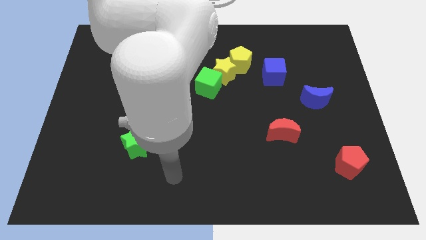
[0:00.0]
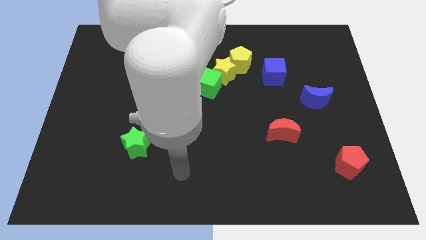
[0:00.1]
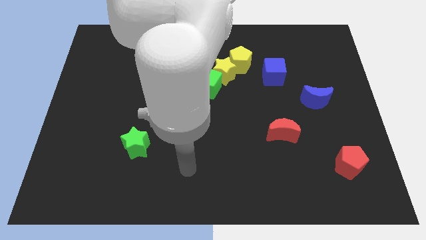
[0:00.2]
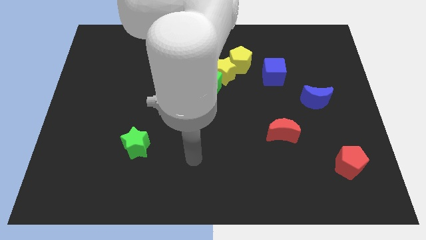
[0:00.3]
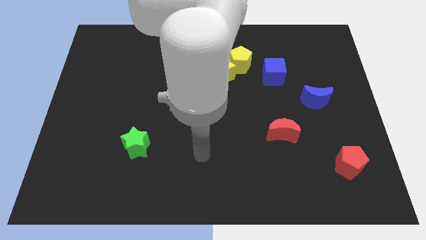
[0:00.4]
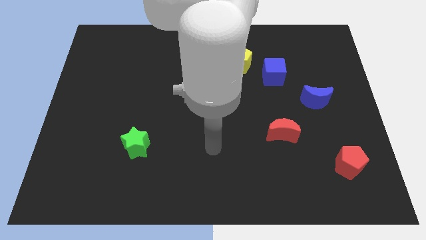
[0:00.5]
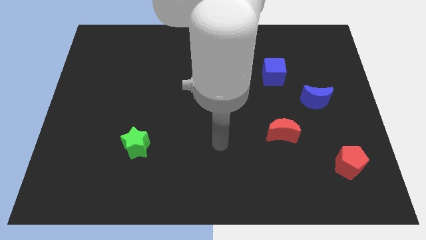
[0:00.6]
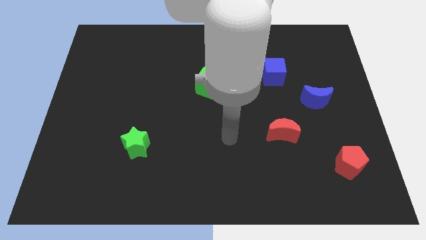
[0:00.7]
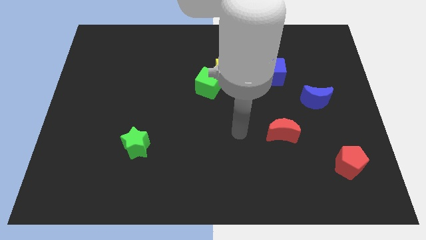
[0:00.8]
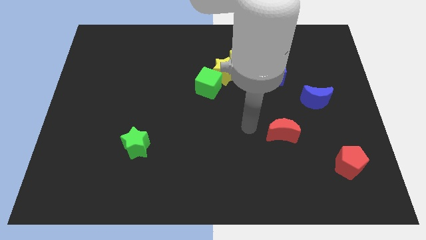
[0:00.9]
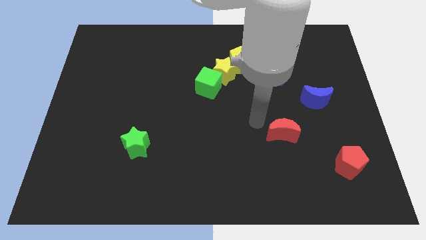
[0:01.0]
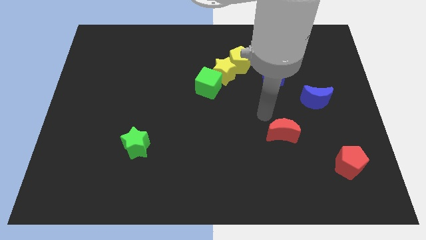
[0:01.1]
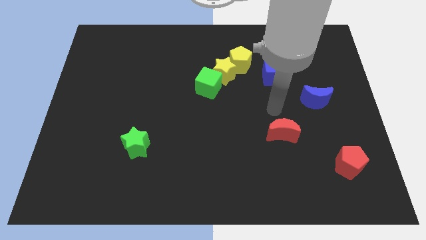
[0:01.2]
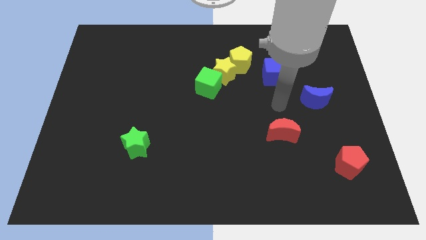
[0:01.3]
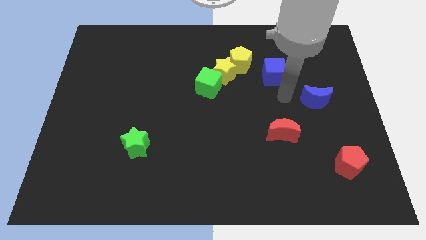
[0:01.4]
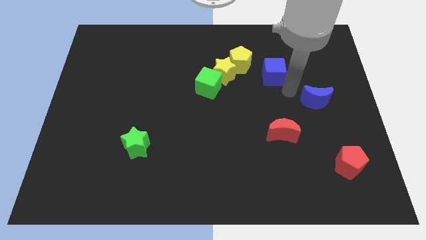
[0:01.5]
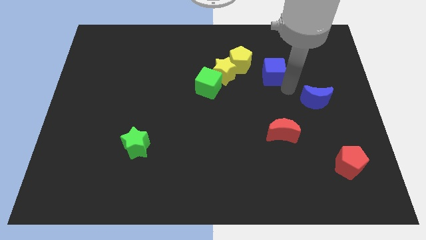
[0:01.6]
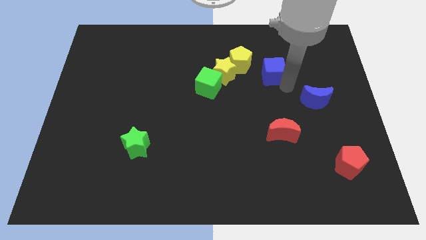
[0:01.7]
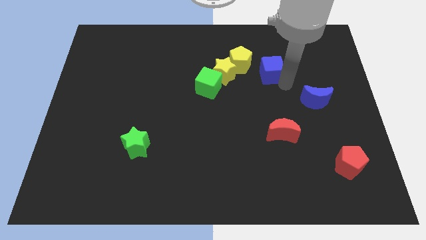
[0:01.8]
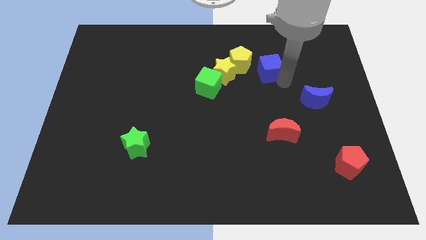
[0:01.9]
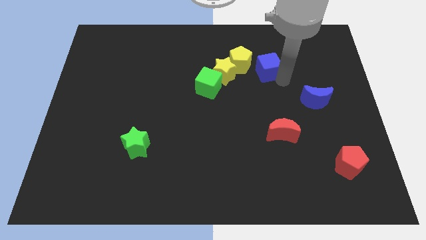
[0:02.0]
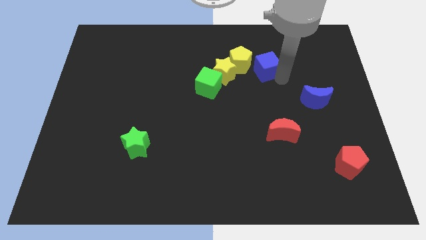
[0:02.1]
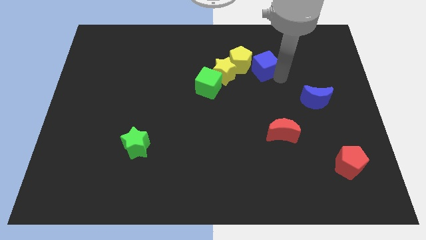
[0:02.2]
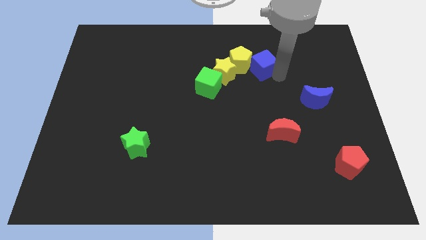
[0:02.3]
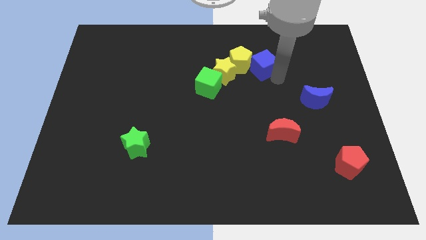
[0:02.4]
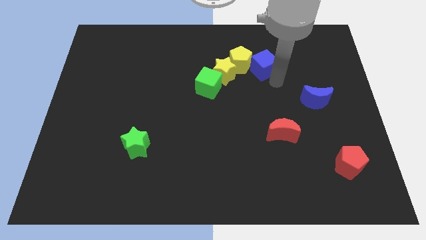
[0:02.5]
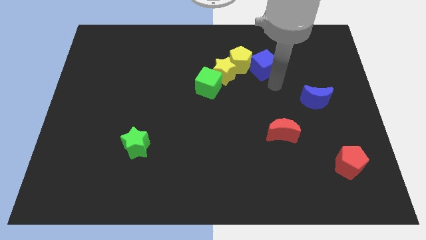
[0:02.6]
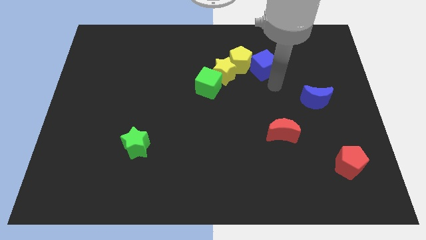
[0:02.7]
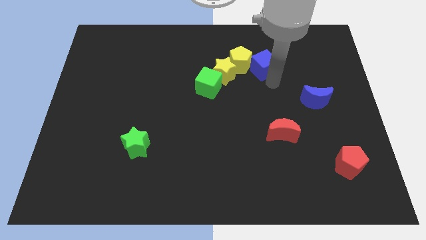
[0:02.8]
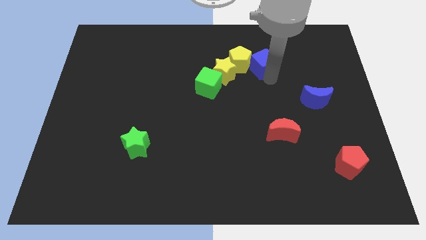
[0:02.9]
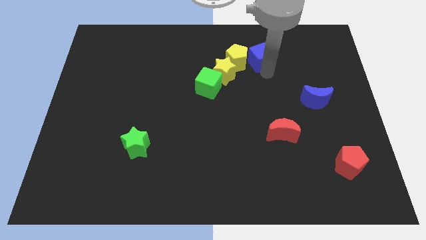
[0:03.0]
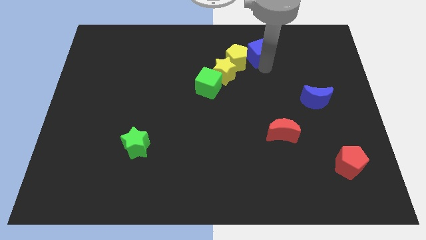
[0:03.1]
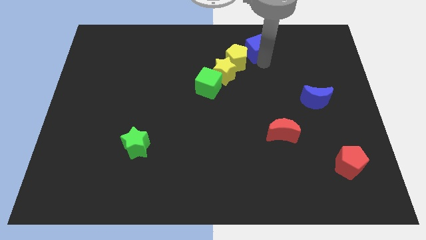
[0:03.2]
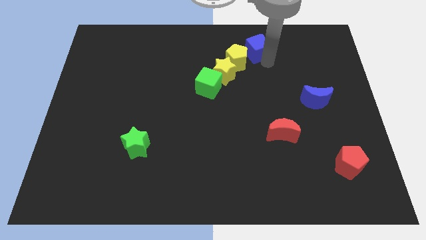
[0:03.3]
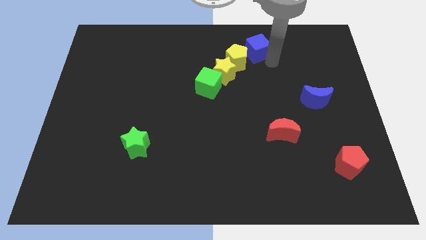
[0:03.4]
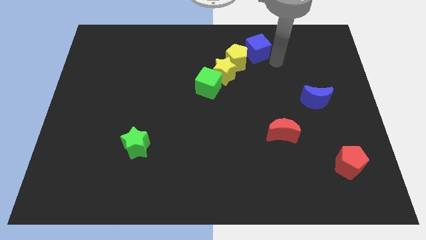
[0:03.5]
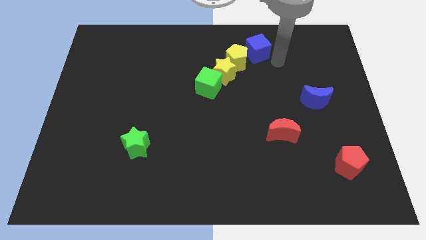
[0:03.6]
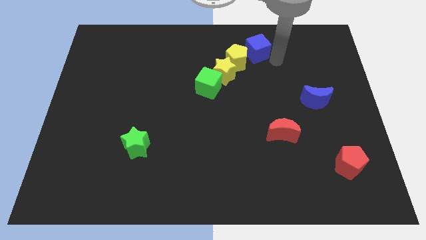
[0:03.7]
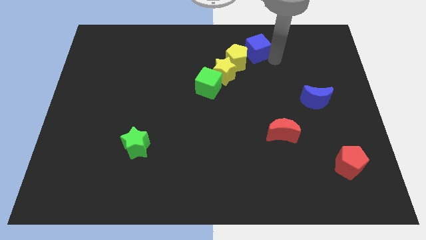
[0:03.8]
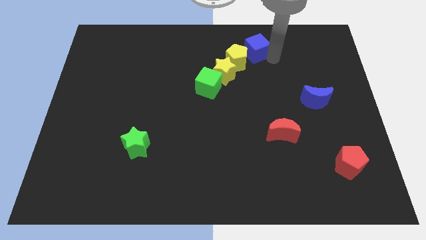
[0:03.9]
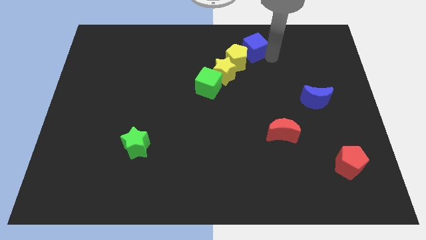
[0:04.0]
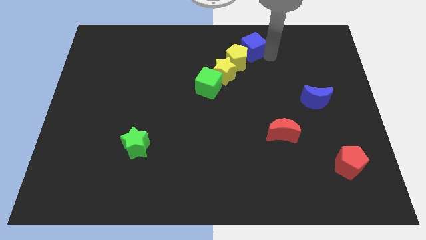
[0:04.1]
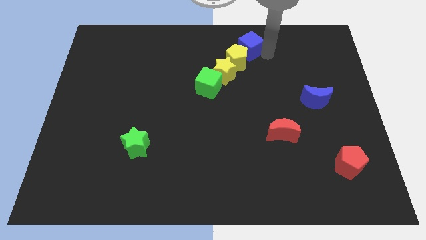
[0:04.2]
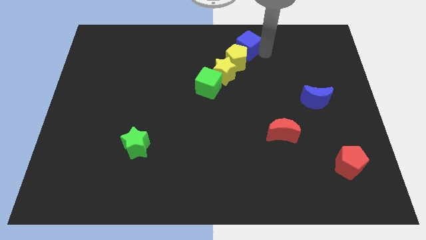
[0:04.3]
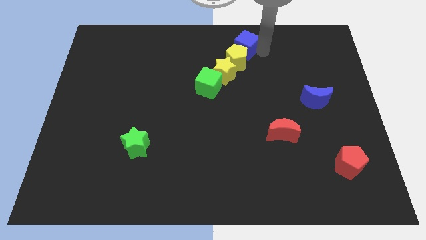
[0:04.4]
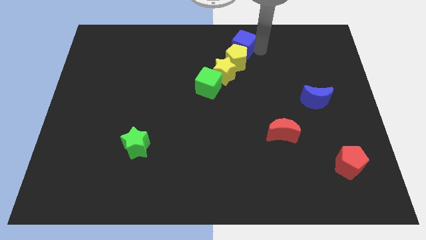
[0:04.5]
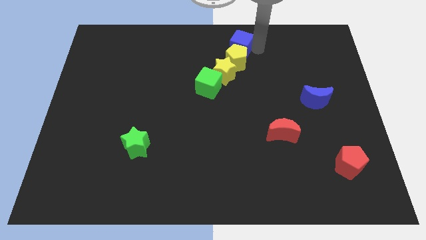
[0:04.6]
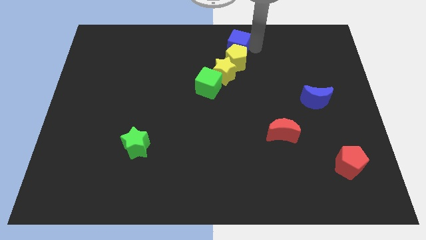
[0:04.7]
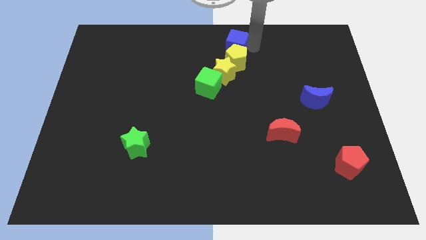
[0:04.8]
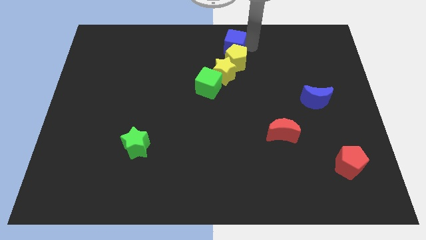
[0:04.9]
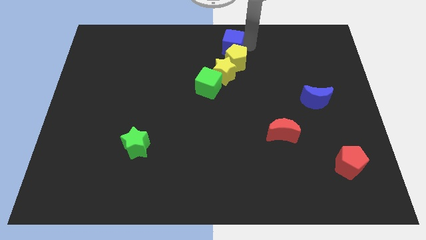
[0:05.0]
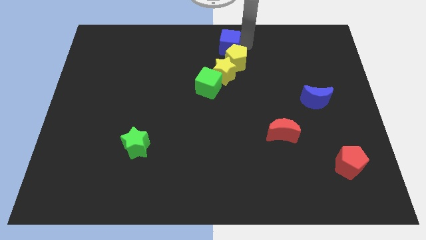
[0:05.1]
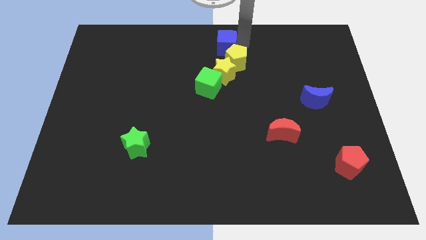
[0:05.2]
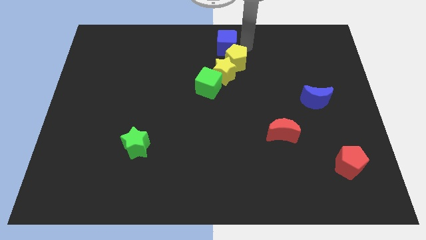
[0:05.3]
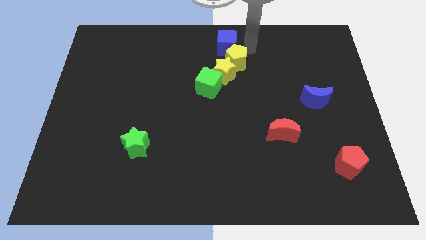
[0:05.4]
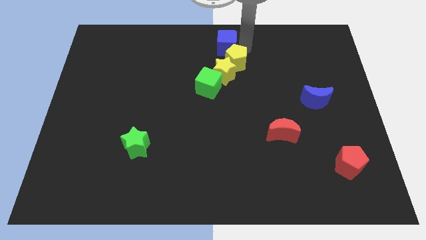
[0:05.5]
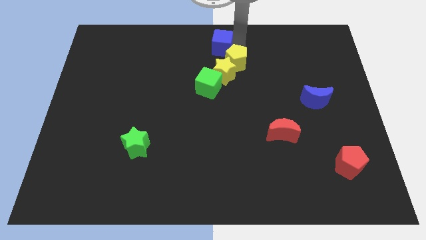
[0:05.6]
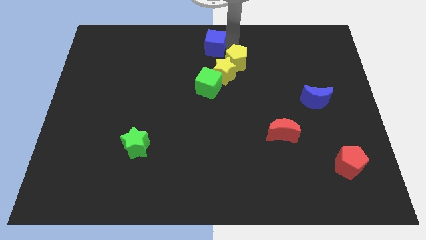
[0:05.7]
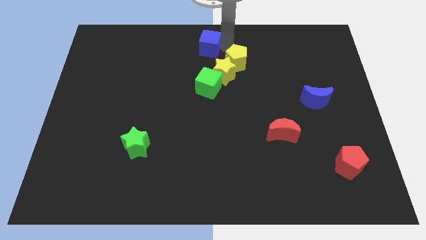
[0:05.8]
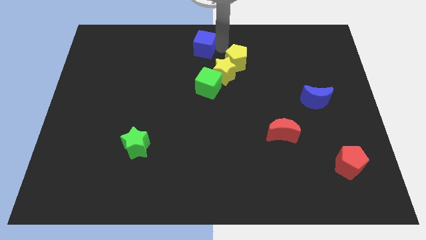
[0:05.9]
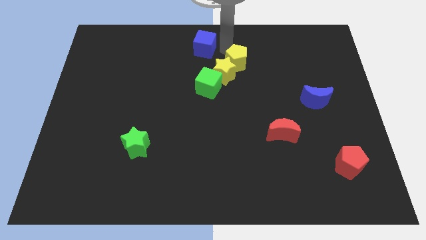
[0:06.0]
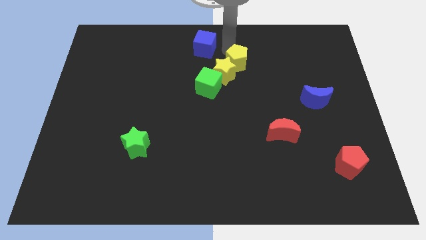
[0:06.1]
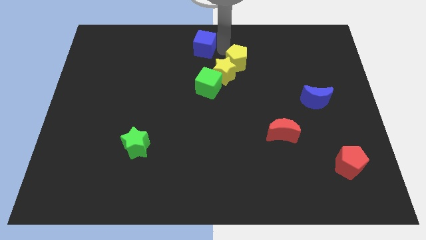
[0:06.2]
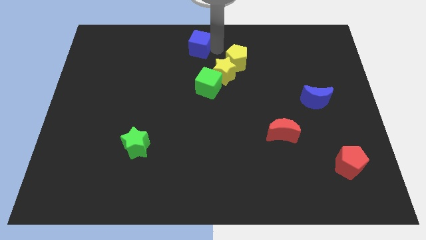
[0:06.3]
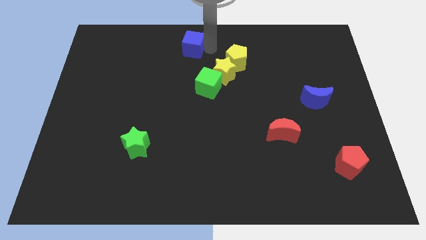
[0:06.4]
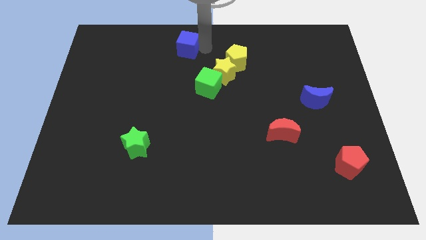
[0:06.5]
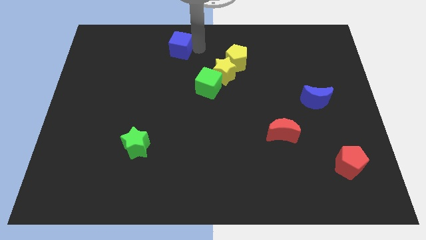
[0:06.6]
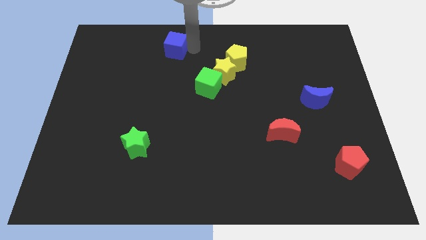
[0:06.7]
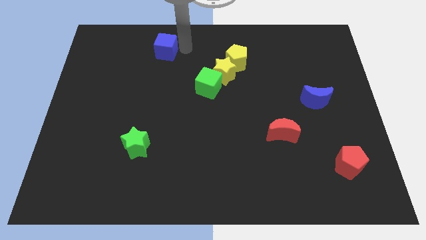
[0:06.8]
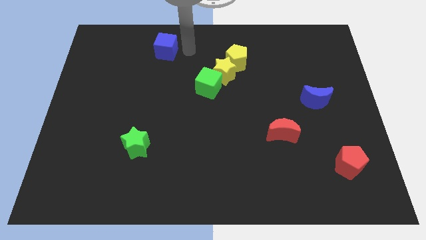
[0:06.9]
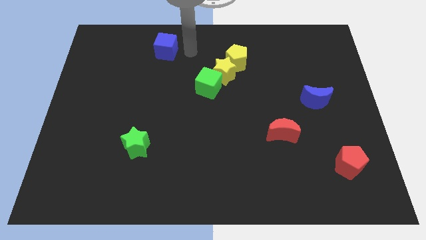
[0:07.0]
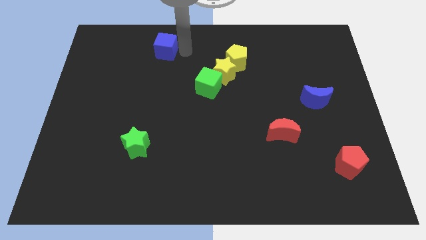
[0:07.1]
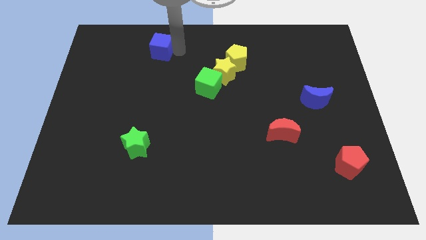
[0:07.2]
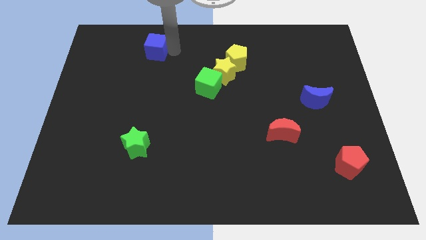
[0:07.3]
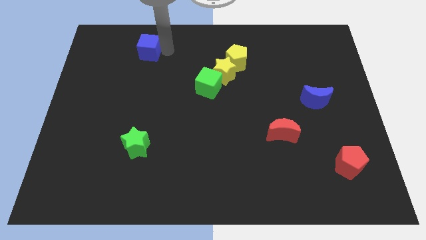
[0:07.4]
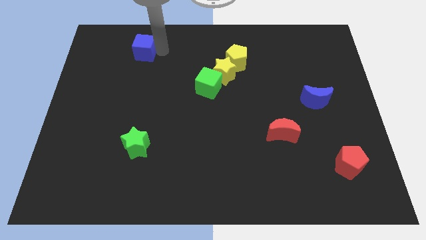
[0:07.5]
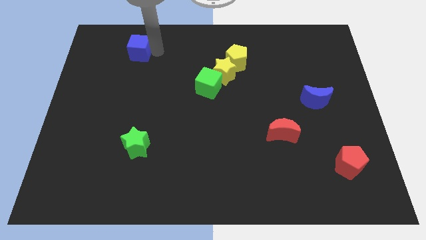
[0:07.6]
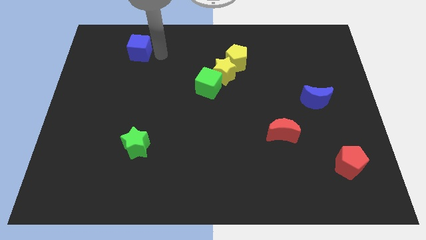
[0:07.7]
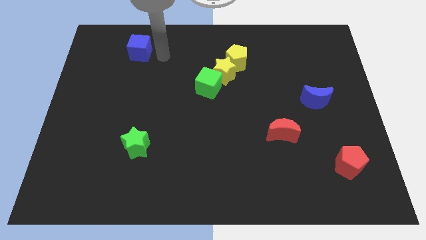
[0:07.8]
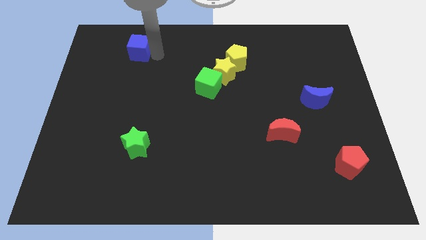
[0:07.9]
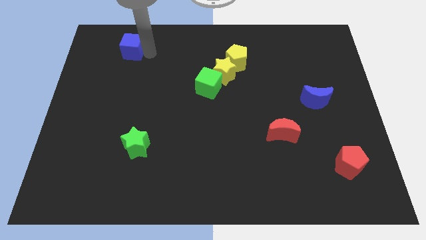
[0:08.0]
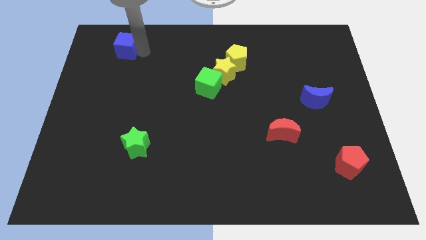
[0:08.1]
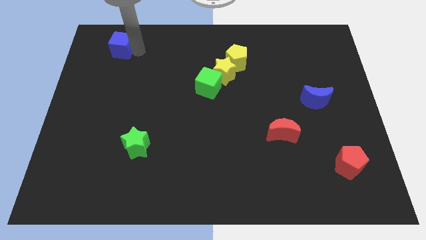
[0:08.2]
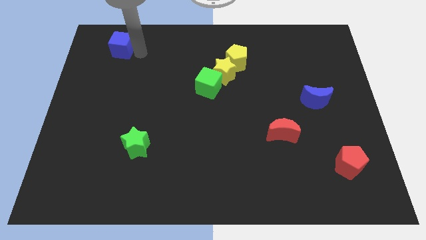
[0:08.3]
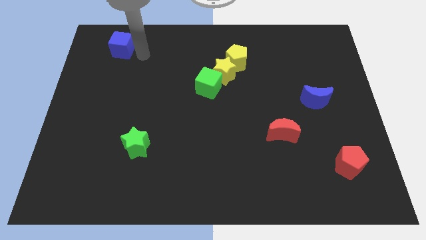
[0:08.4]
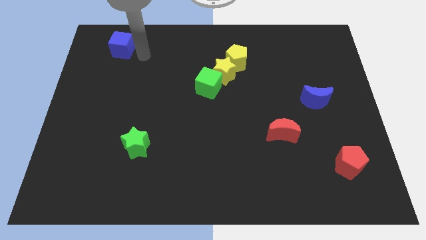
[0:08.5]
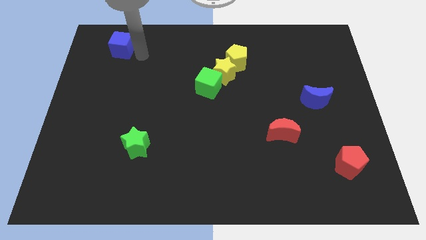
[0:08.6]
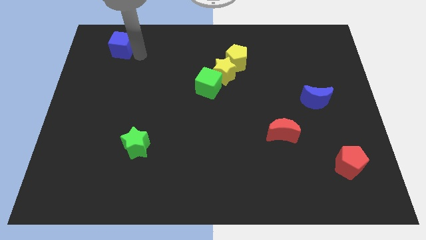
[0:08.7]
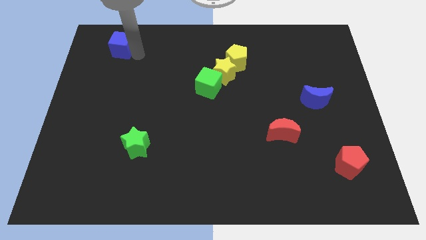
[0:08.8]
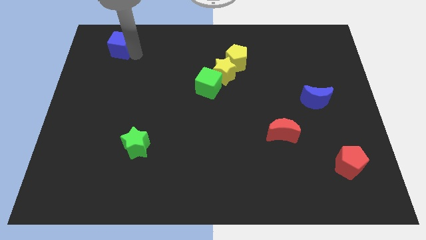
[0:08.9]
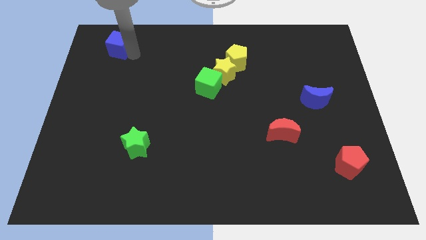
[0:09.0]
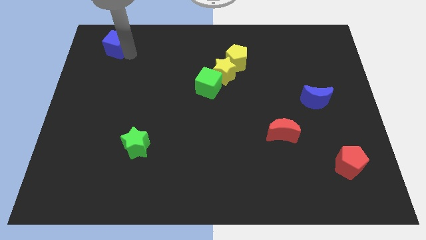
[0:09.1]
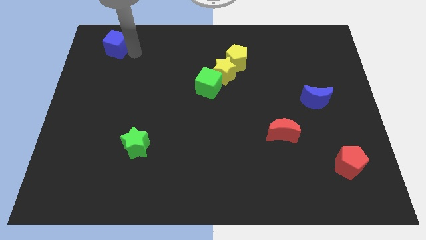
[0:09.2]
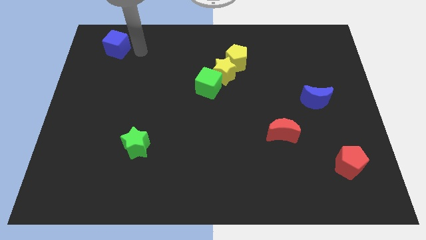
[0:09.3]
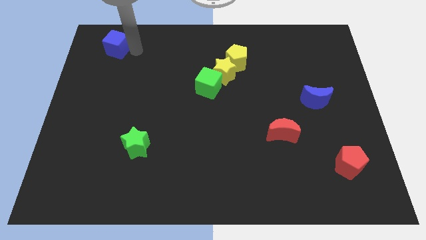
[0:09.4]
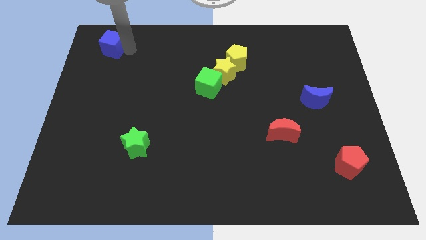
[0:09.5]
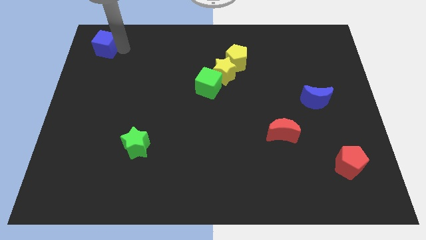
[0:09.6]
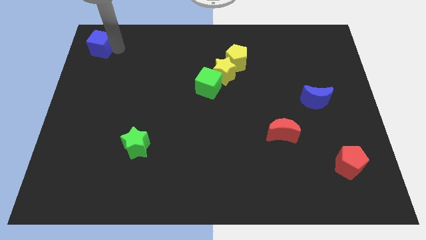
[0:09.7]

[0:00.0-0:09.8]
slide the blue cube to the upper left corner
